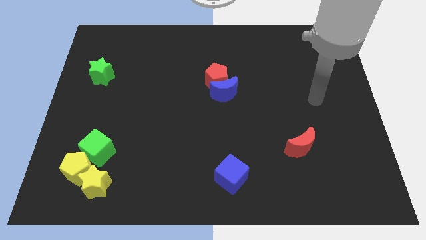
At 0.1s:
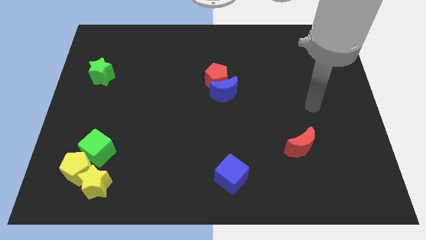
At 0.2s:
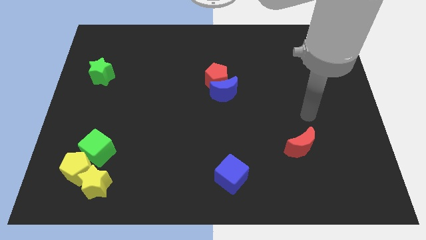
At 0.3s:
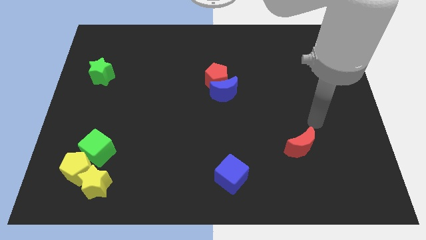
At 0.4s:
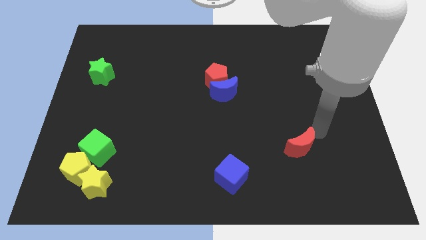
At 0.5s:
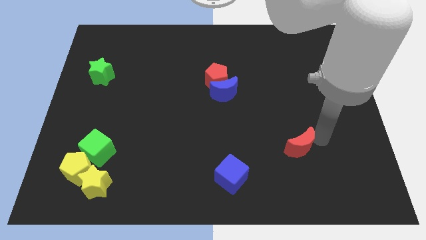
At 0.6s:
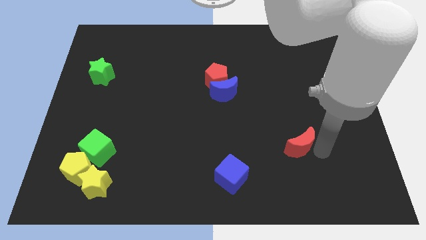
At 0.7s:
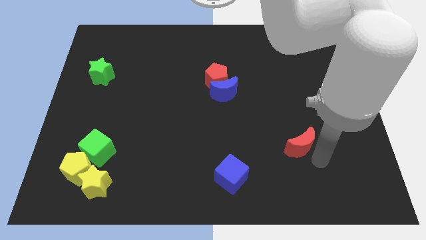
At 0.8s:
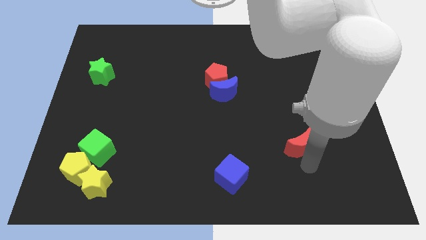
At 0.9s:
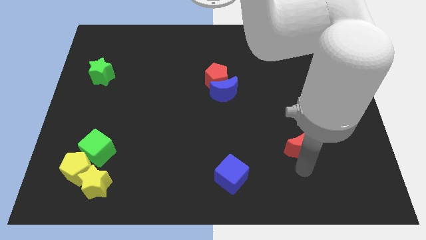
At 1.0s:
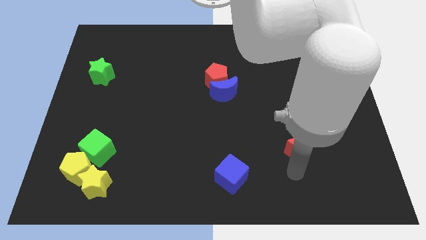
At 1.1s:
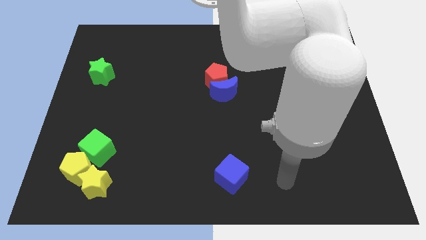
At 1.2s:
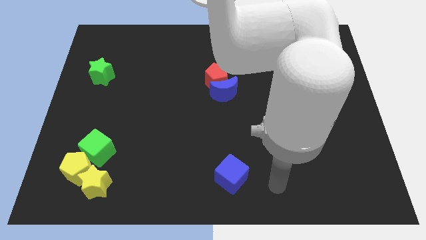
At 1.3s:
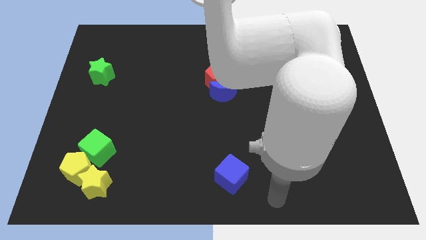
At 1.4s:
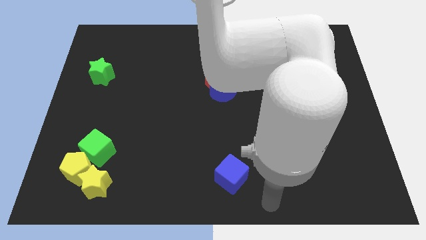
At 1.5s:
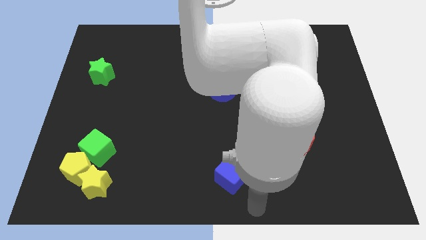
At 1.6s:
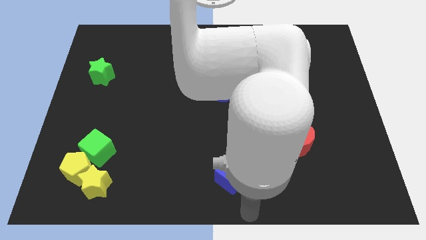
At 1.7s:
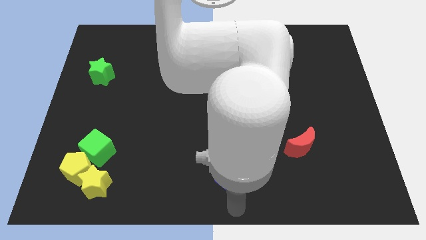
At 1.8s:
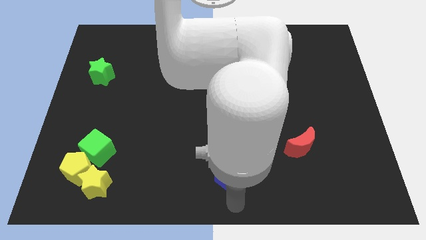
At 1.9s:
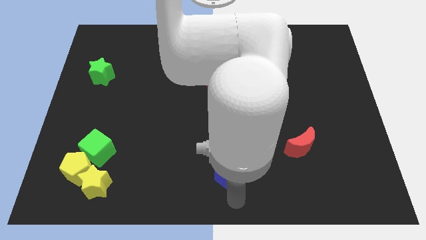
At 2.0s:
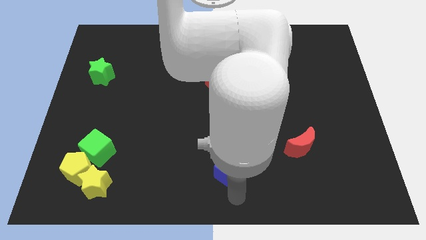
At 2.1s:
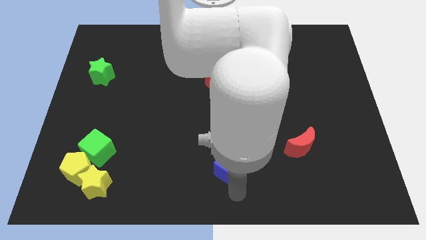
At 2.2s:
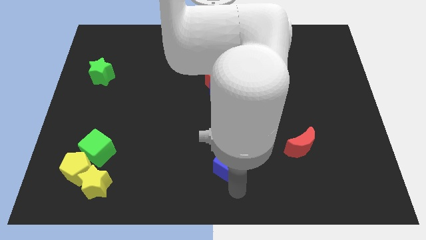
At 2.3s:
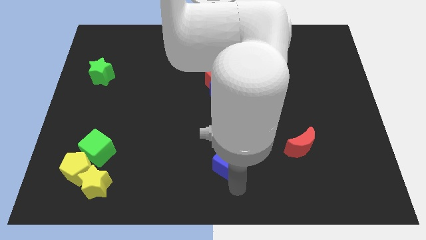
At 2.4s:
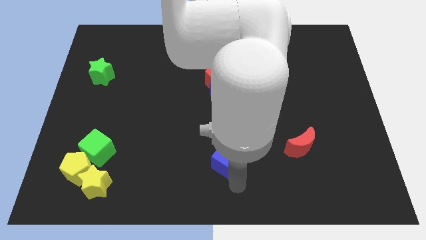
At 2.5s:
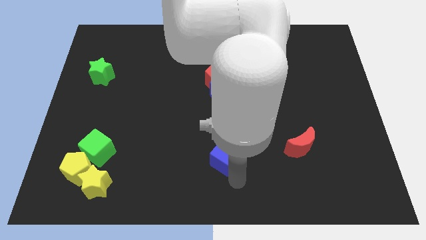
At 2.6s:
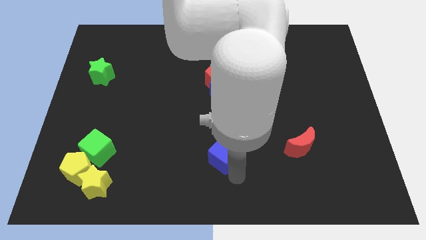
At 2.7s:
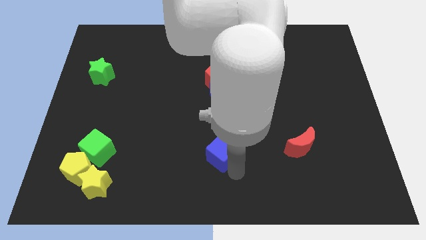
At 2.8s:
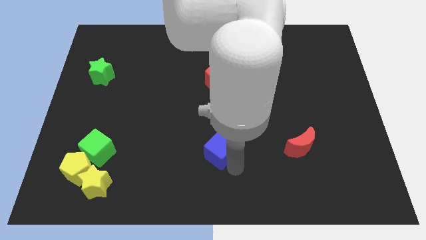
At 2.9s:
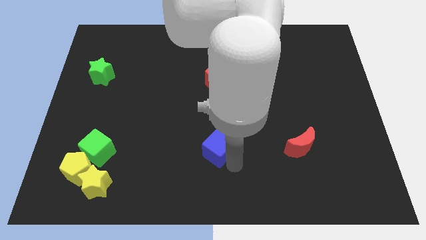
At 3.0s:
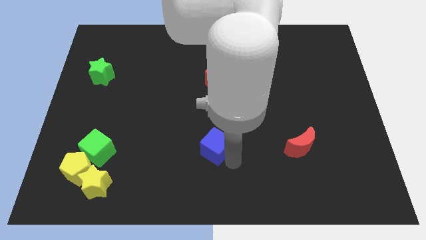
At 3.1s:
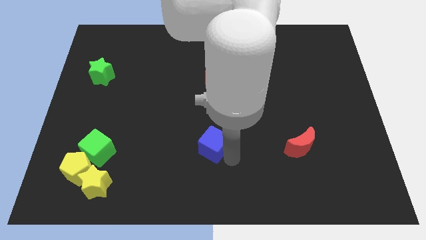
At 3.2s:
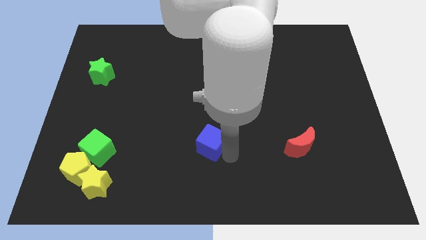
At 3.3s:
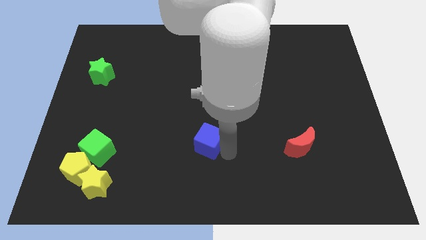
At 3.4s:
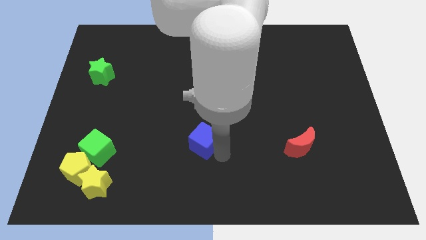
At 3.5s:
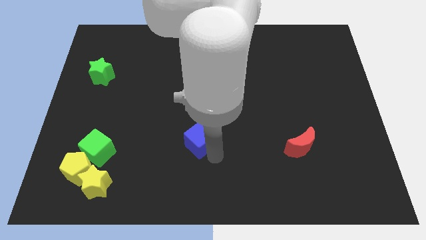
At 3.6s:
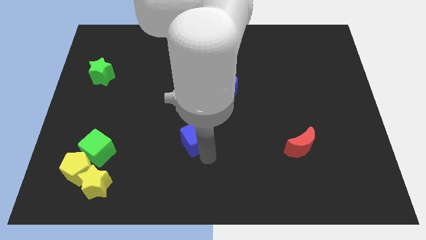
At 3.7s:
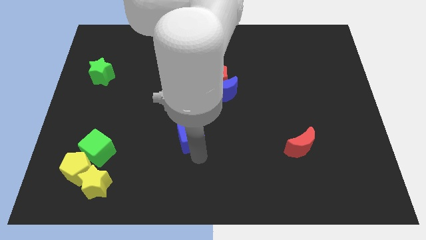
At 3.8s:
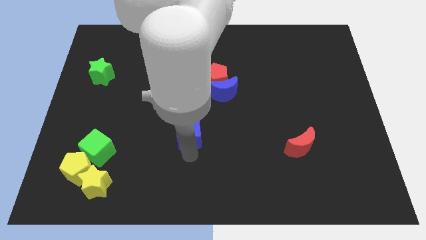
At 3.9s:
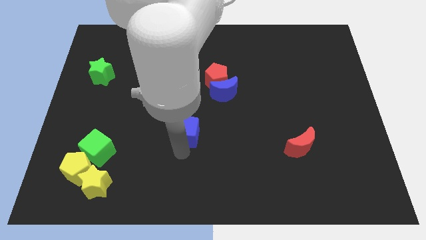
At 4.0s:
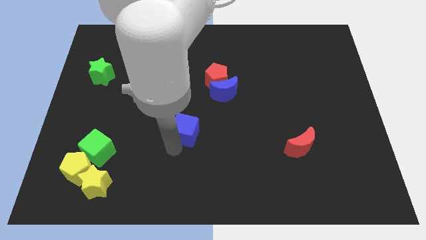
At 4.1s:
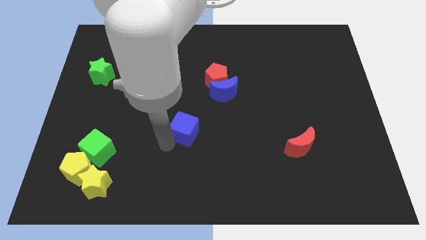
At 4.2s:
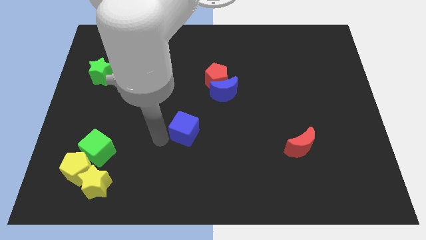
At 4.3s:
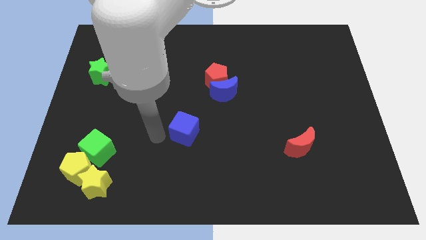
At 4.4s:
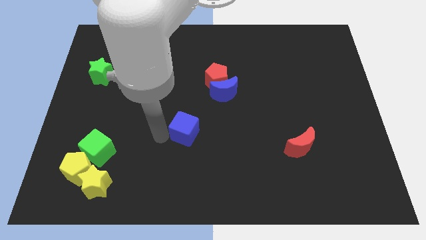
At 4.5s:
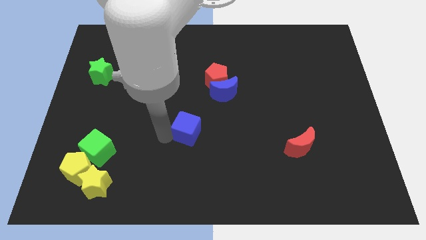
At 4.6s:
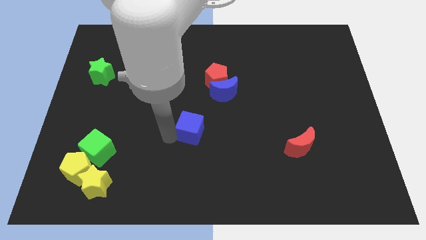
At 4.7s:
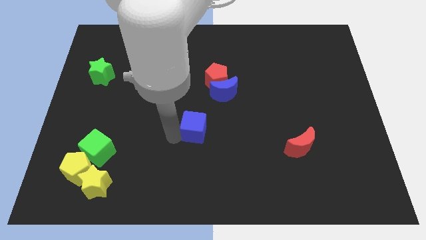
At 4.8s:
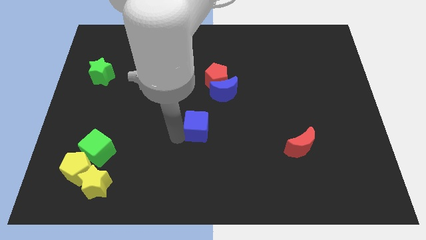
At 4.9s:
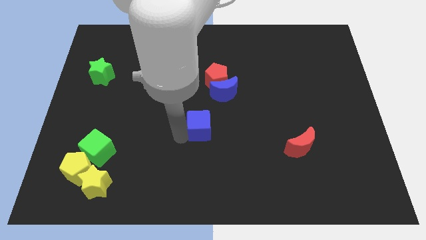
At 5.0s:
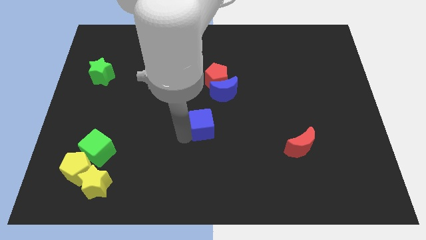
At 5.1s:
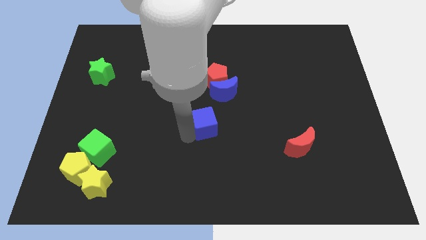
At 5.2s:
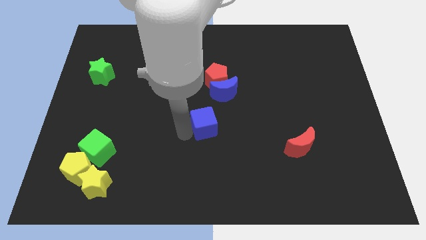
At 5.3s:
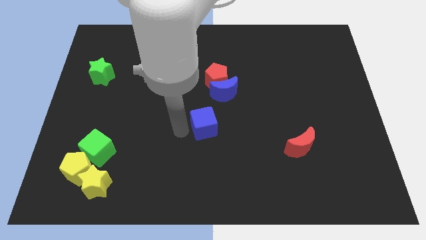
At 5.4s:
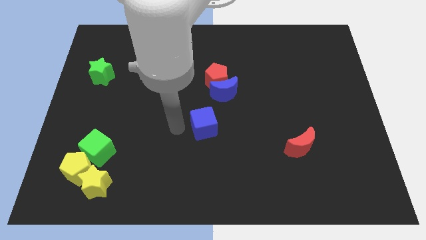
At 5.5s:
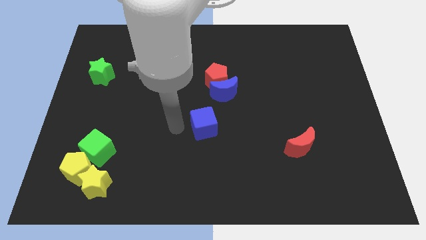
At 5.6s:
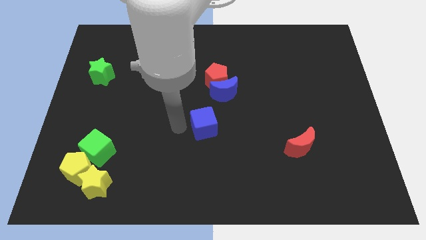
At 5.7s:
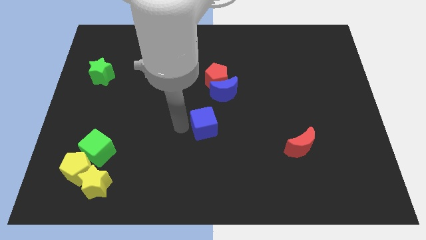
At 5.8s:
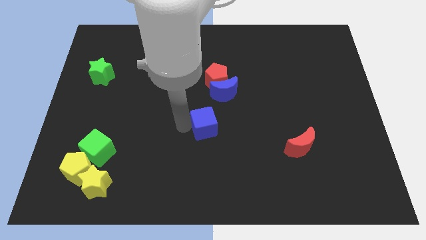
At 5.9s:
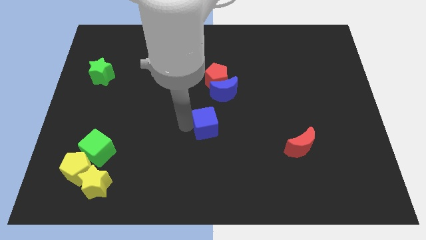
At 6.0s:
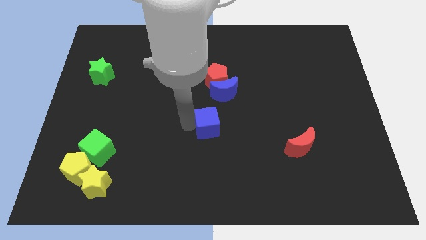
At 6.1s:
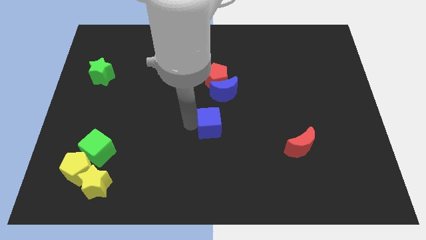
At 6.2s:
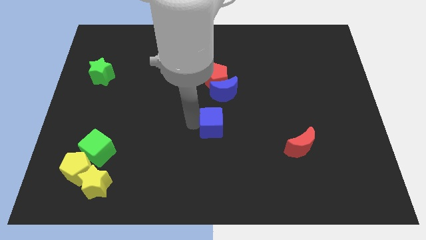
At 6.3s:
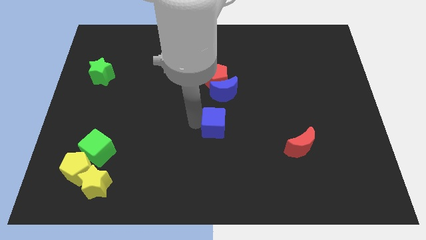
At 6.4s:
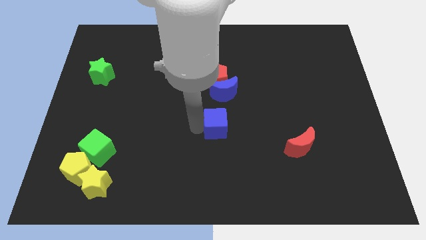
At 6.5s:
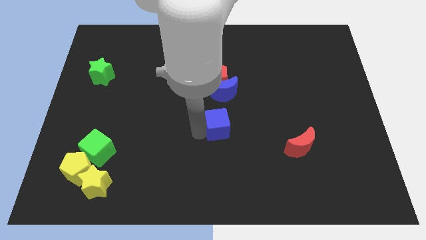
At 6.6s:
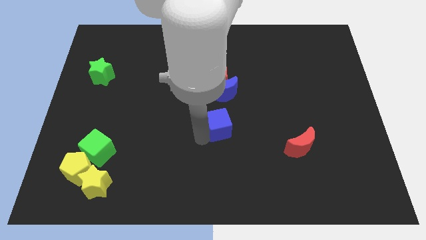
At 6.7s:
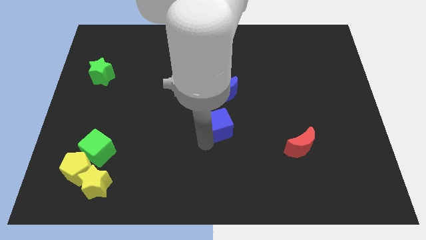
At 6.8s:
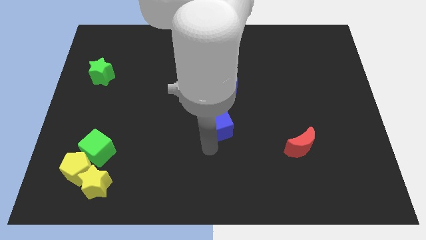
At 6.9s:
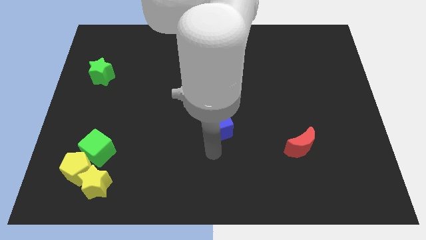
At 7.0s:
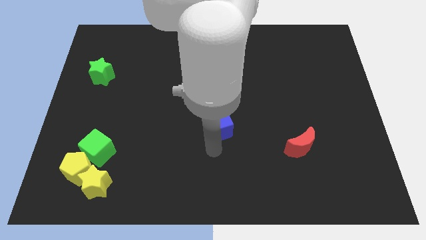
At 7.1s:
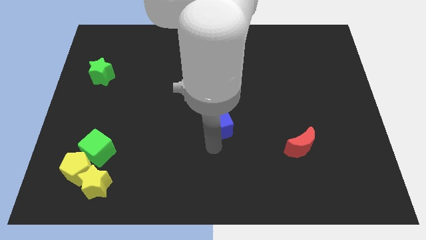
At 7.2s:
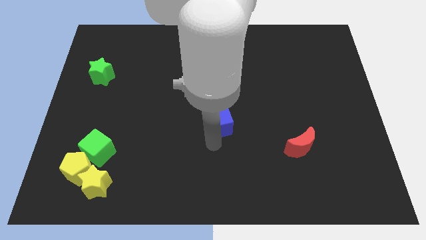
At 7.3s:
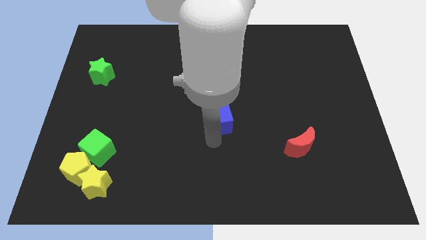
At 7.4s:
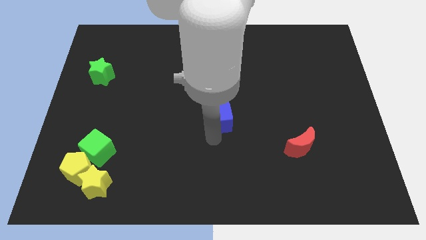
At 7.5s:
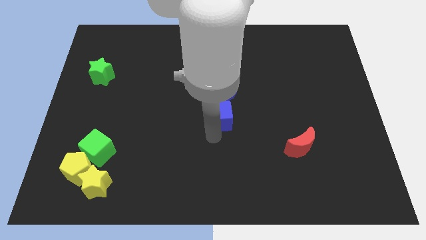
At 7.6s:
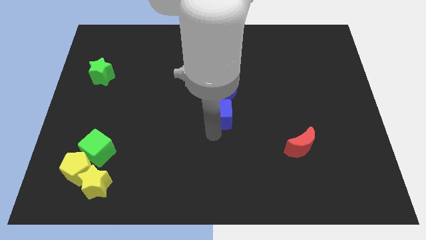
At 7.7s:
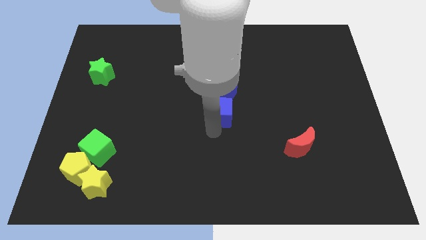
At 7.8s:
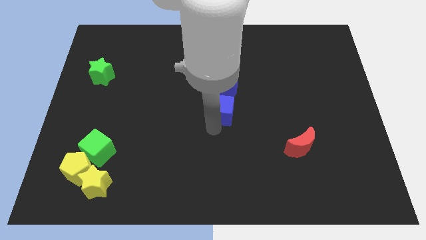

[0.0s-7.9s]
slide the blue cube close to the blue moon
